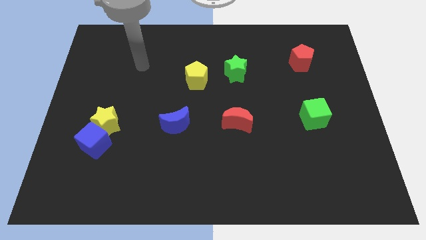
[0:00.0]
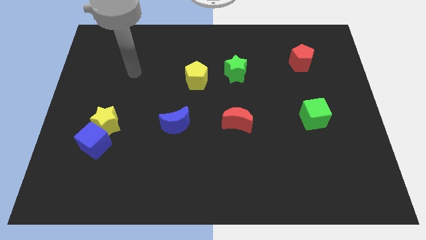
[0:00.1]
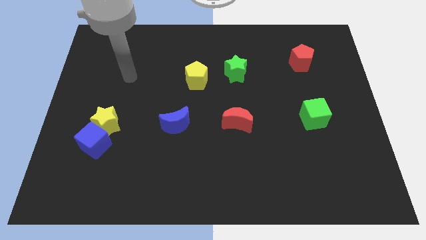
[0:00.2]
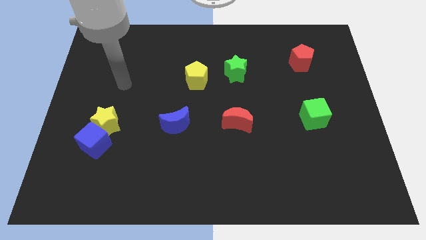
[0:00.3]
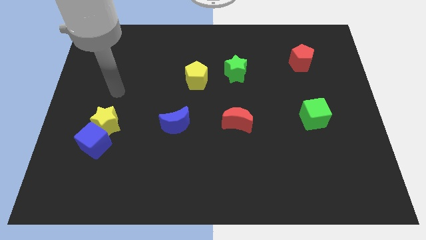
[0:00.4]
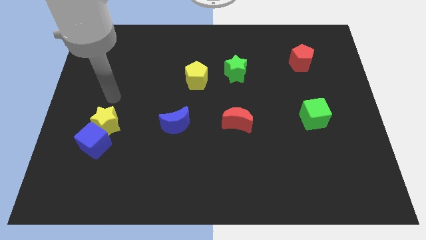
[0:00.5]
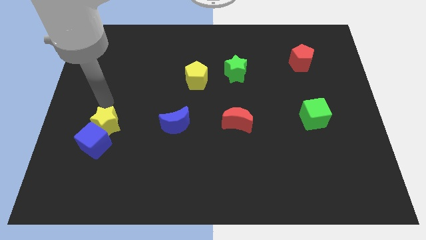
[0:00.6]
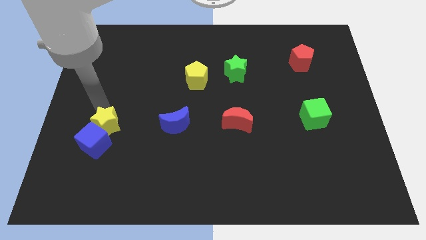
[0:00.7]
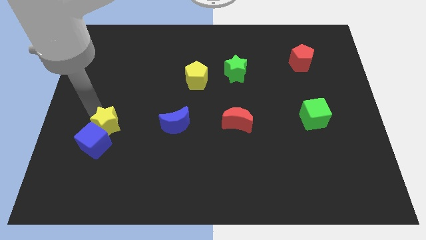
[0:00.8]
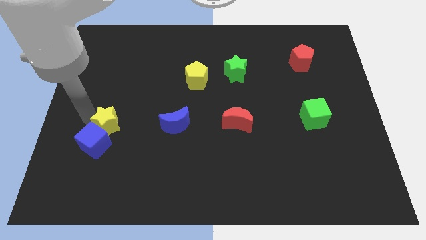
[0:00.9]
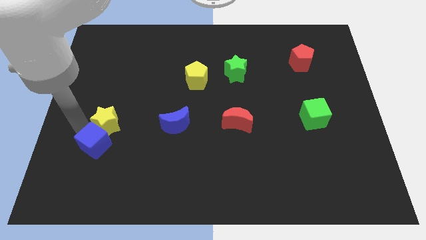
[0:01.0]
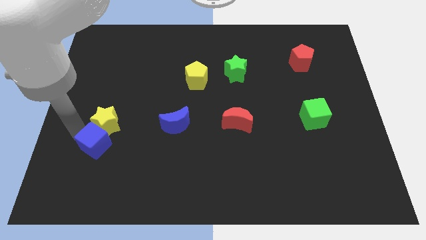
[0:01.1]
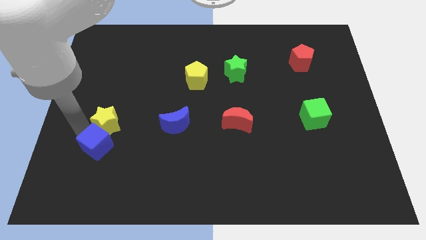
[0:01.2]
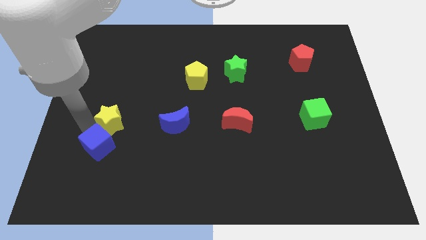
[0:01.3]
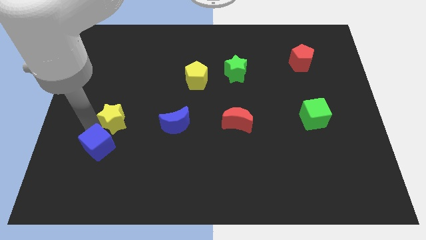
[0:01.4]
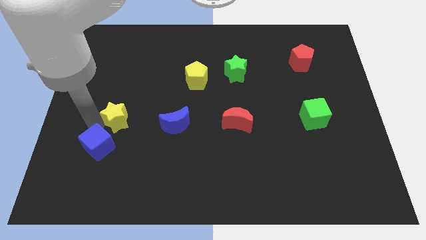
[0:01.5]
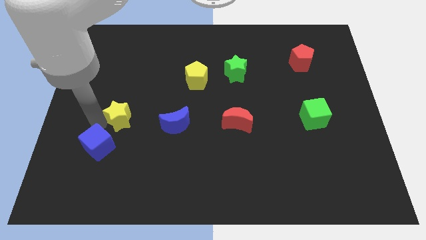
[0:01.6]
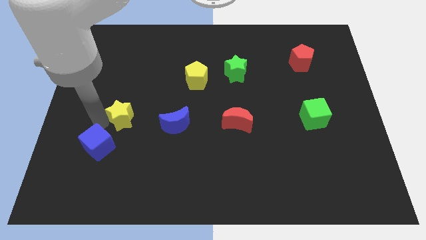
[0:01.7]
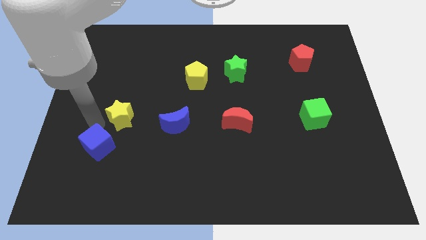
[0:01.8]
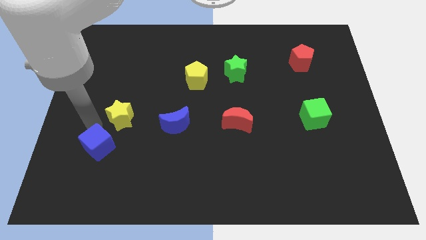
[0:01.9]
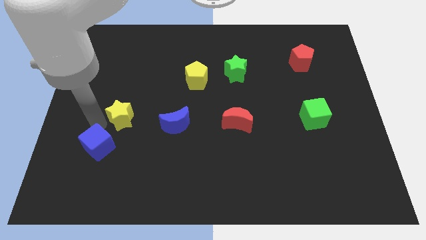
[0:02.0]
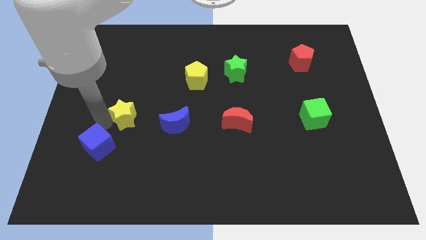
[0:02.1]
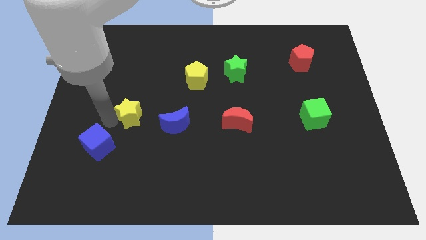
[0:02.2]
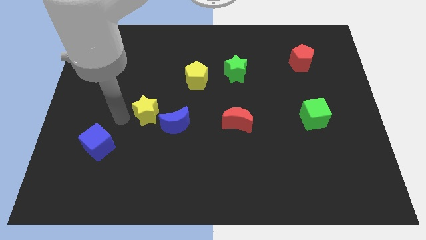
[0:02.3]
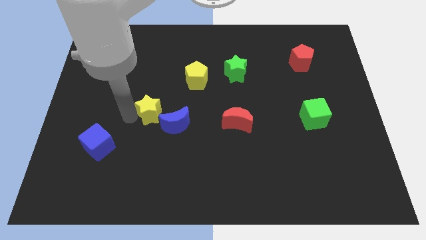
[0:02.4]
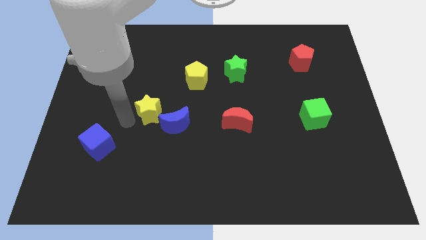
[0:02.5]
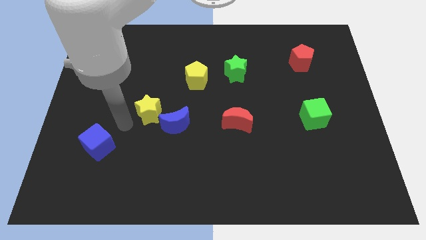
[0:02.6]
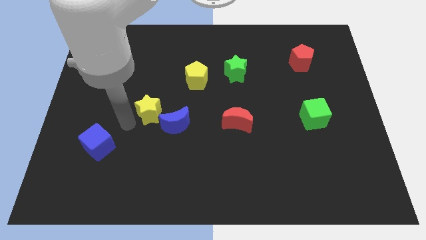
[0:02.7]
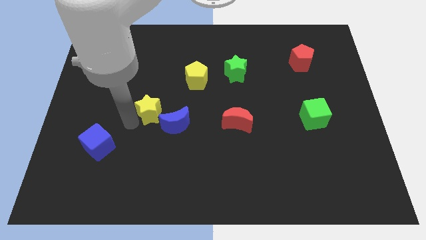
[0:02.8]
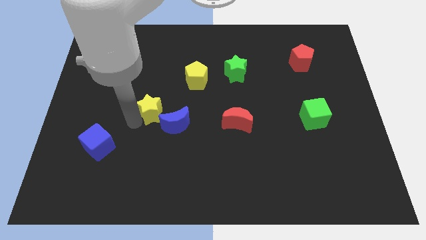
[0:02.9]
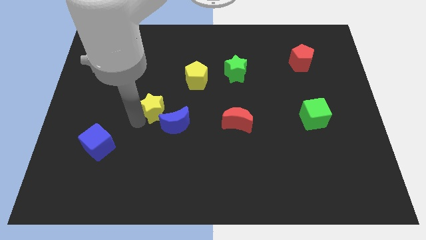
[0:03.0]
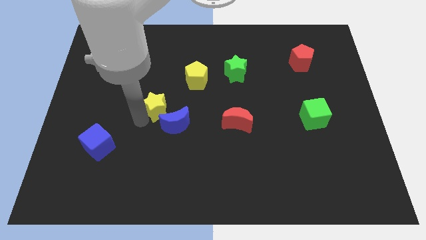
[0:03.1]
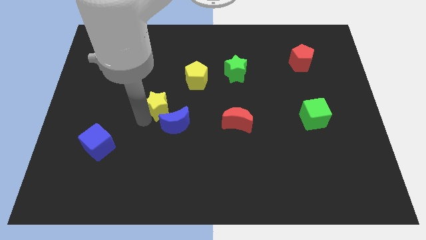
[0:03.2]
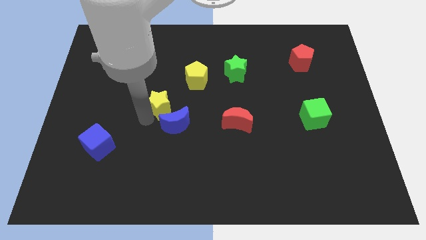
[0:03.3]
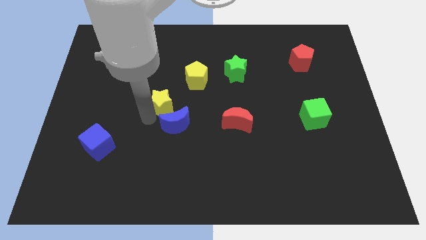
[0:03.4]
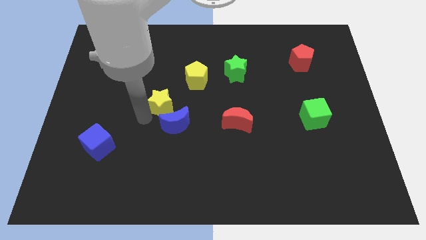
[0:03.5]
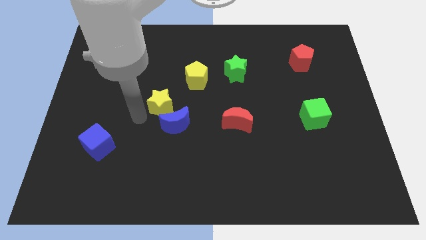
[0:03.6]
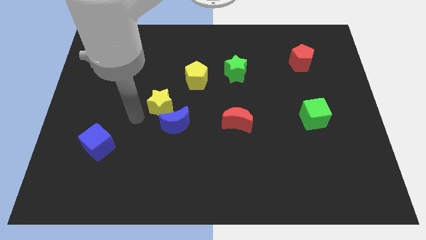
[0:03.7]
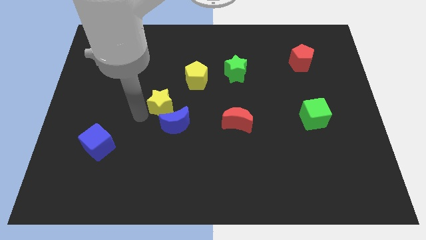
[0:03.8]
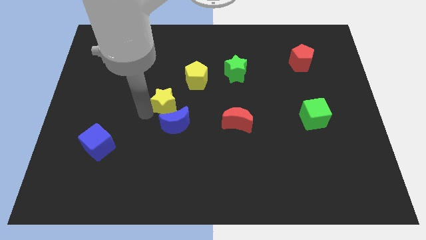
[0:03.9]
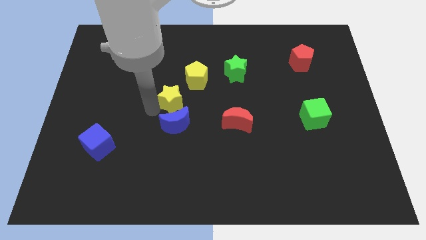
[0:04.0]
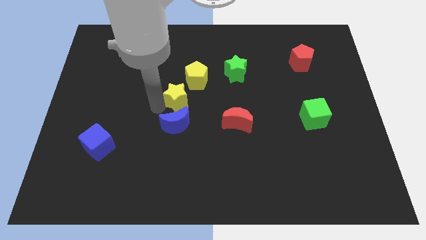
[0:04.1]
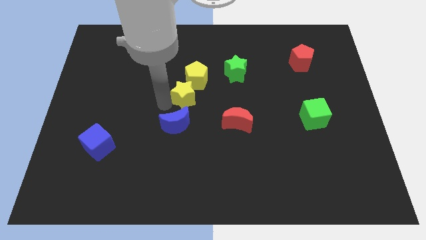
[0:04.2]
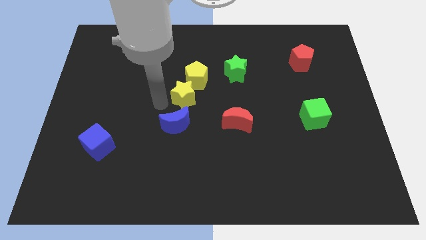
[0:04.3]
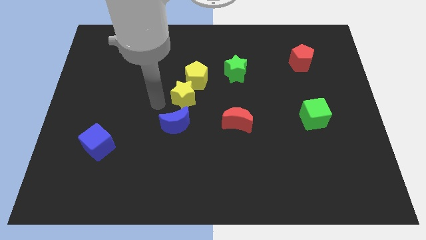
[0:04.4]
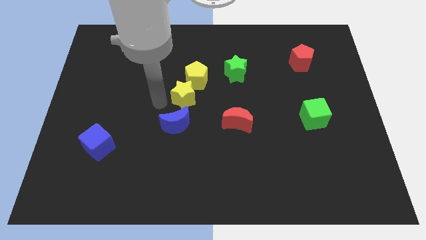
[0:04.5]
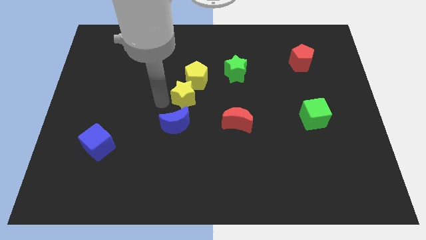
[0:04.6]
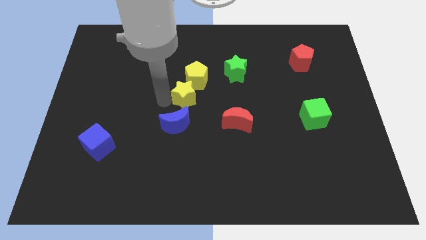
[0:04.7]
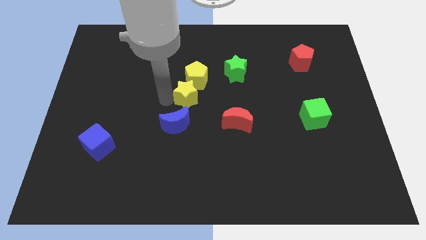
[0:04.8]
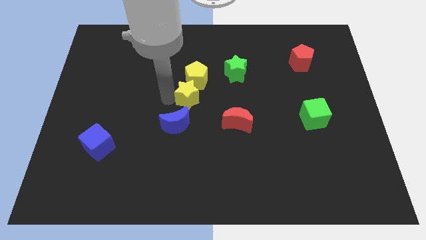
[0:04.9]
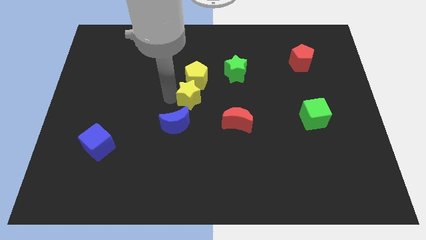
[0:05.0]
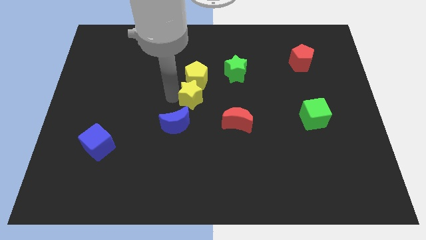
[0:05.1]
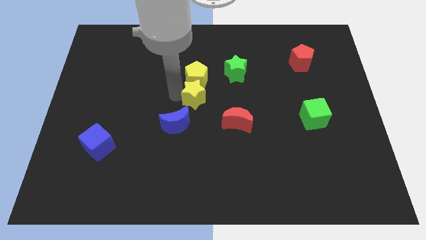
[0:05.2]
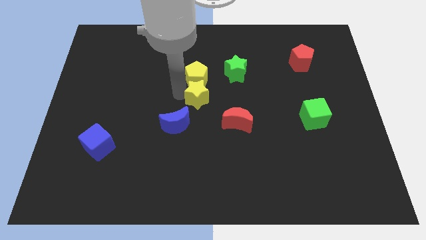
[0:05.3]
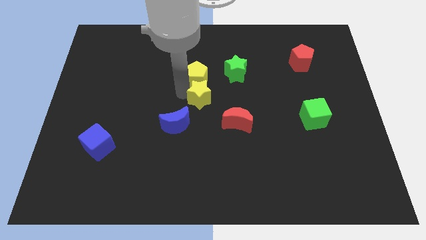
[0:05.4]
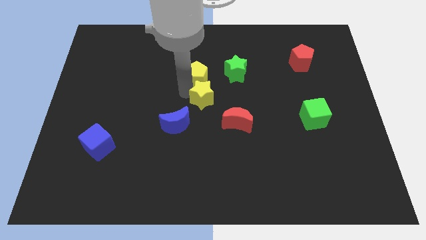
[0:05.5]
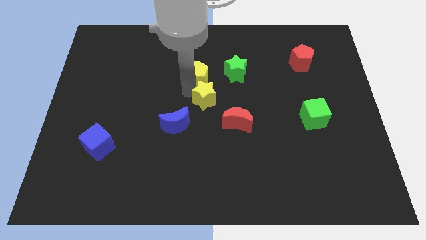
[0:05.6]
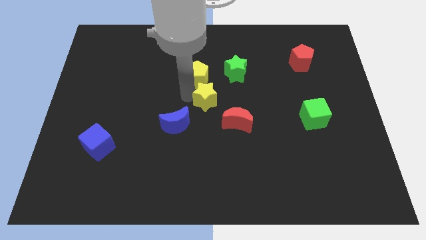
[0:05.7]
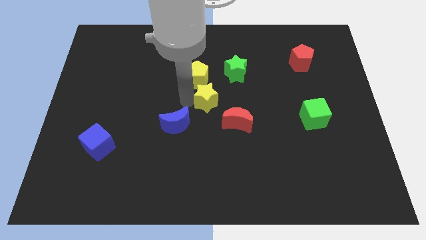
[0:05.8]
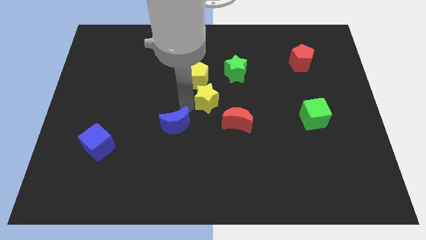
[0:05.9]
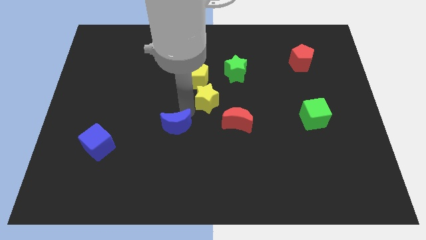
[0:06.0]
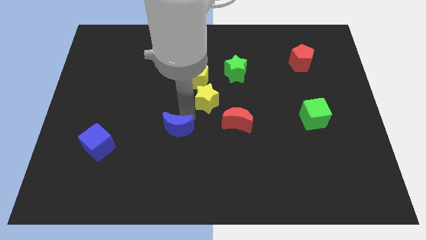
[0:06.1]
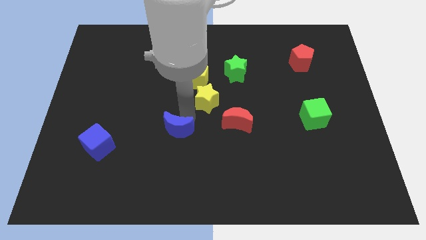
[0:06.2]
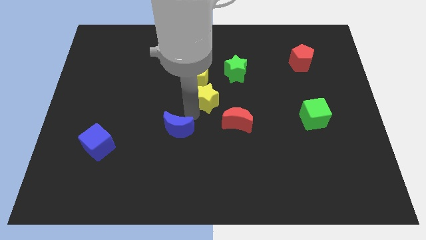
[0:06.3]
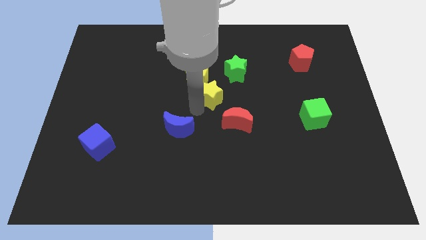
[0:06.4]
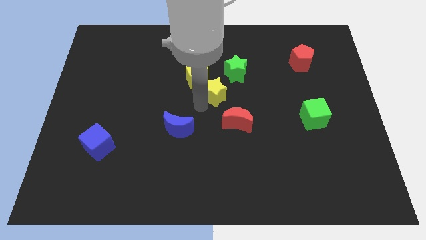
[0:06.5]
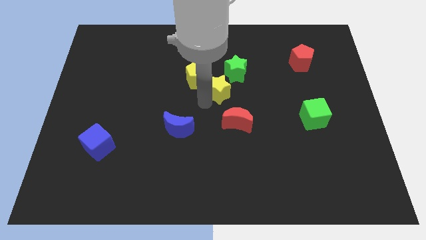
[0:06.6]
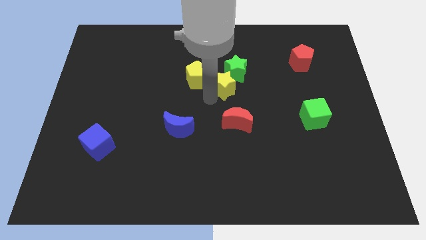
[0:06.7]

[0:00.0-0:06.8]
move the yellow star towards the green star

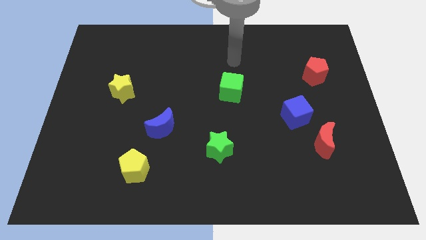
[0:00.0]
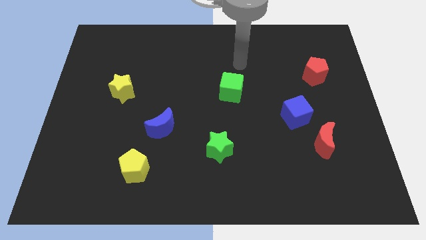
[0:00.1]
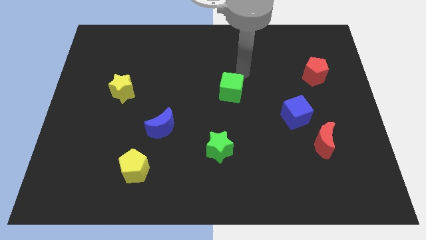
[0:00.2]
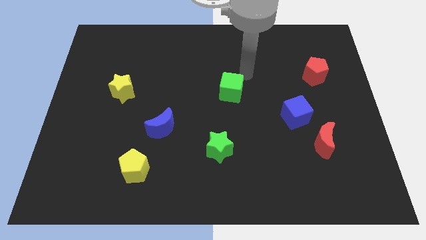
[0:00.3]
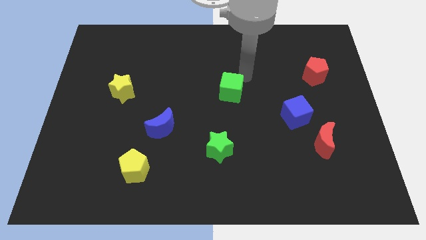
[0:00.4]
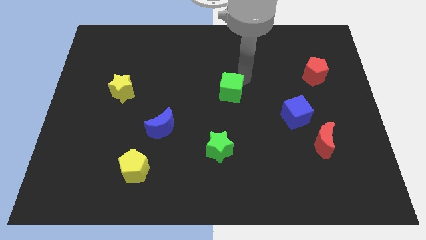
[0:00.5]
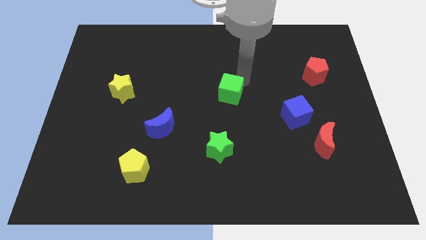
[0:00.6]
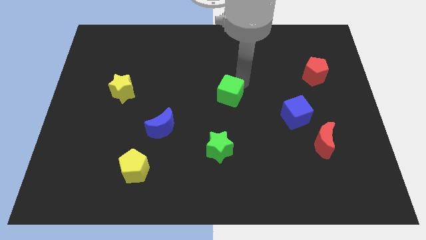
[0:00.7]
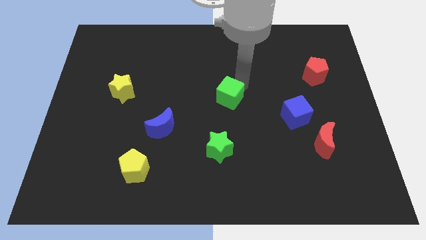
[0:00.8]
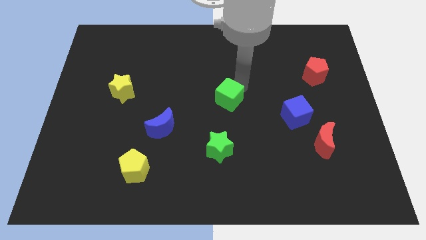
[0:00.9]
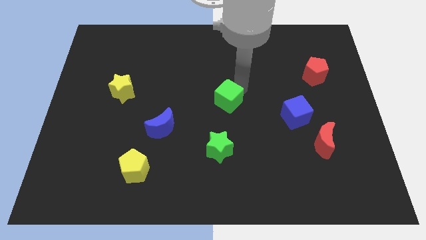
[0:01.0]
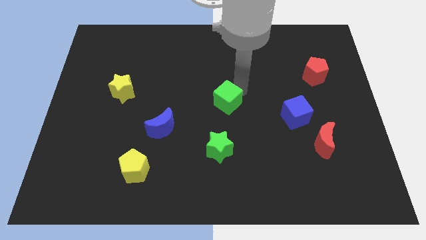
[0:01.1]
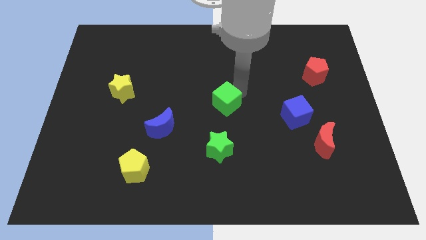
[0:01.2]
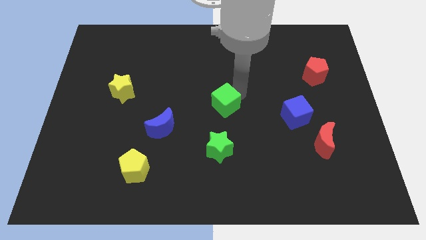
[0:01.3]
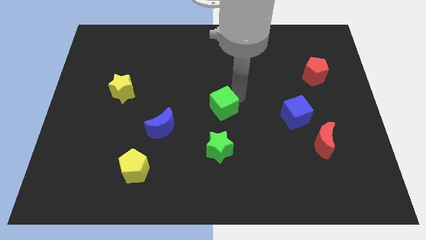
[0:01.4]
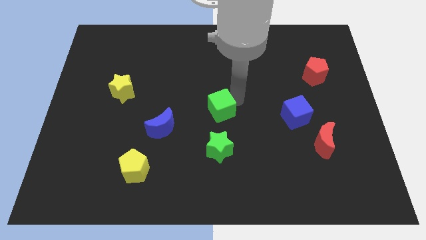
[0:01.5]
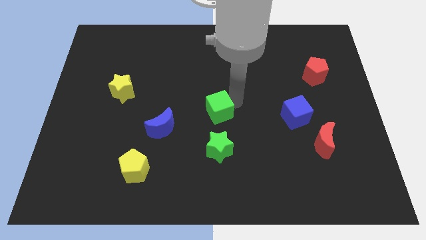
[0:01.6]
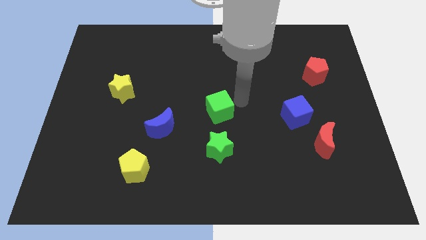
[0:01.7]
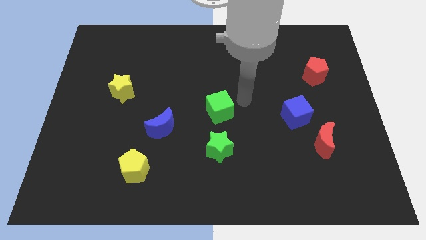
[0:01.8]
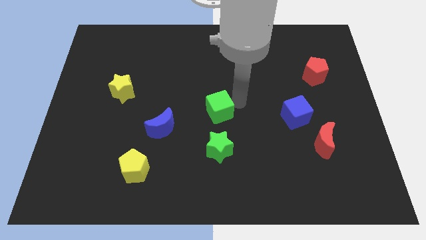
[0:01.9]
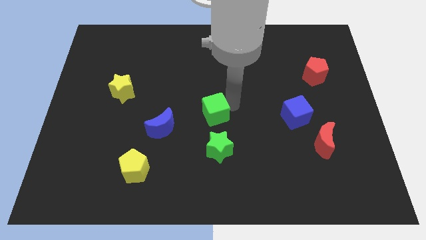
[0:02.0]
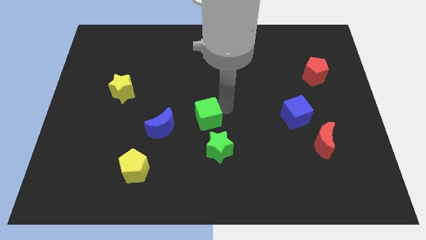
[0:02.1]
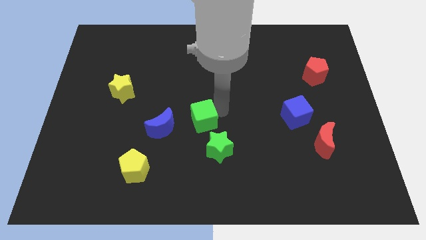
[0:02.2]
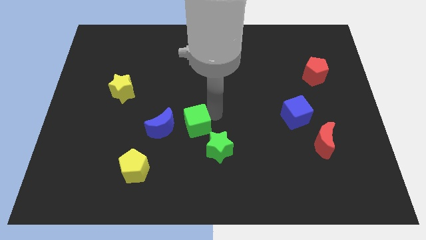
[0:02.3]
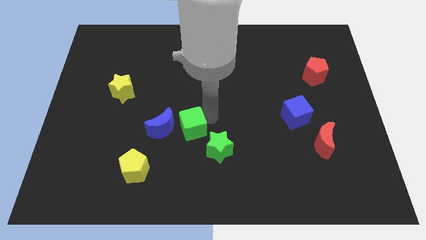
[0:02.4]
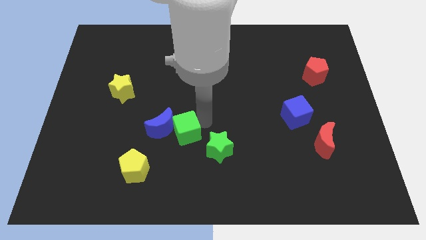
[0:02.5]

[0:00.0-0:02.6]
slide the green cube to the blue moon
